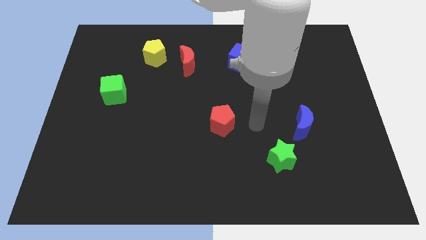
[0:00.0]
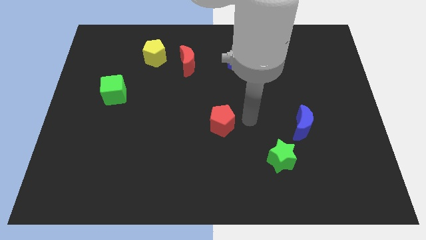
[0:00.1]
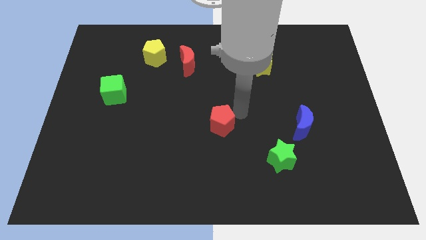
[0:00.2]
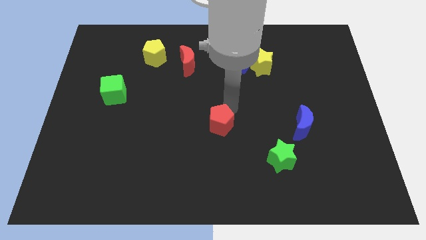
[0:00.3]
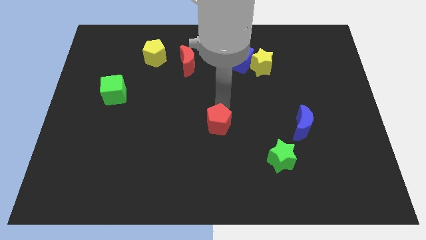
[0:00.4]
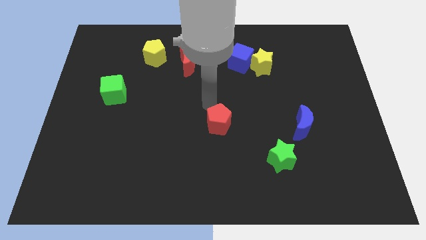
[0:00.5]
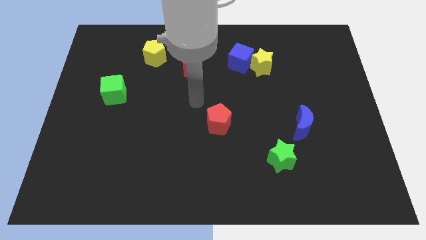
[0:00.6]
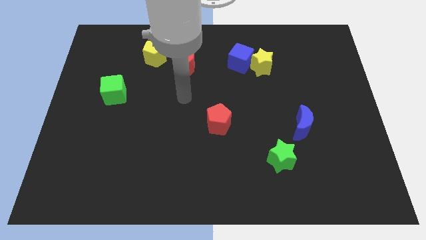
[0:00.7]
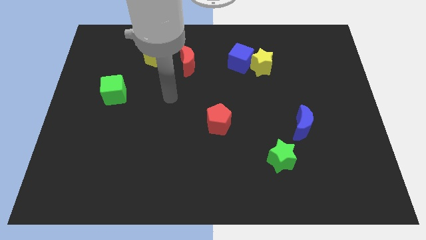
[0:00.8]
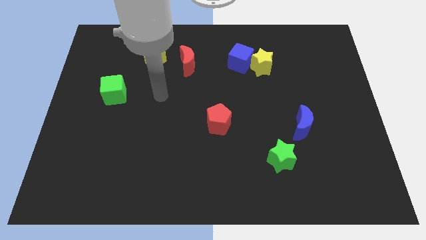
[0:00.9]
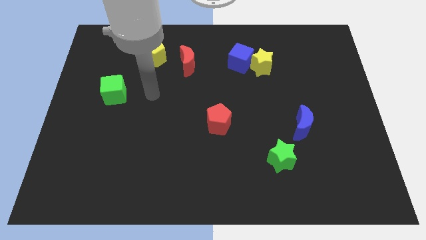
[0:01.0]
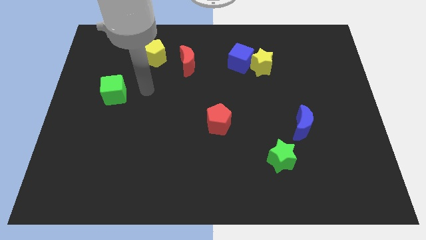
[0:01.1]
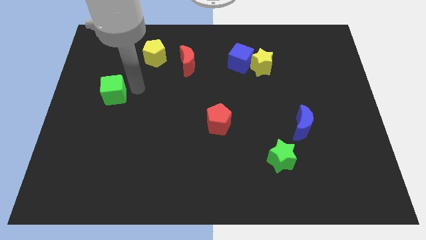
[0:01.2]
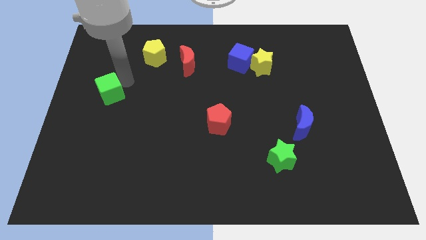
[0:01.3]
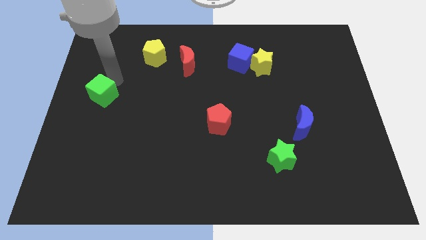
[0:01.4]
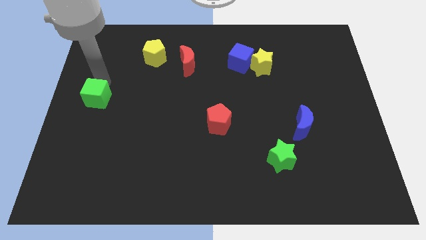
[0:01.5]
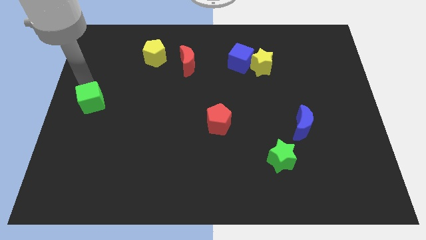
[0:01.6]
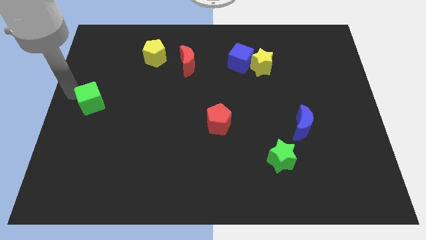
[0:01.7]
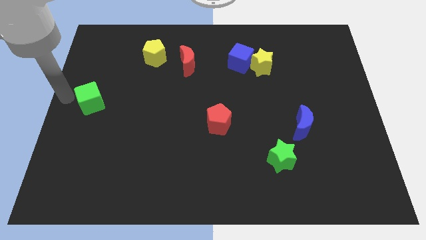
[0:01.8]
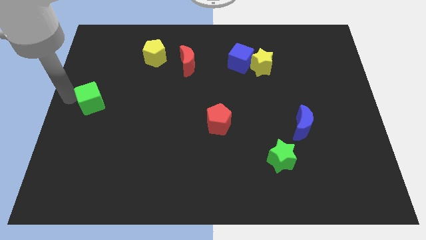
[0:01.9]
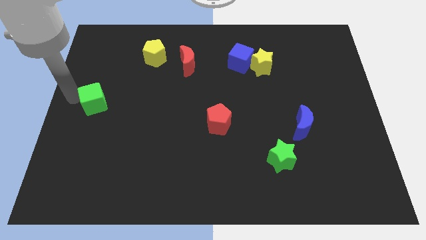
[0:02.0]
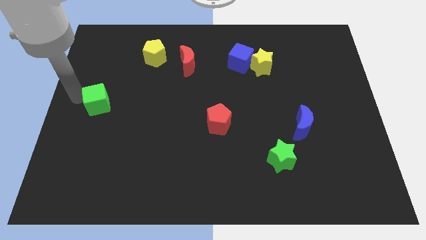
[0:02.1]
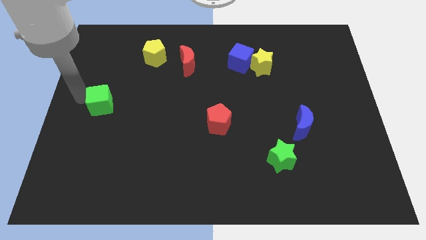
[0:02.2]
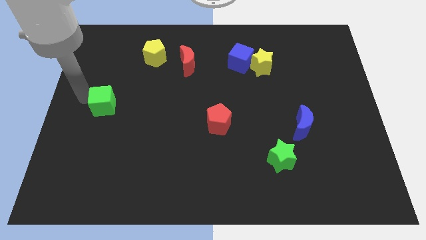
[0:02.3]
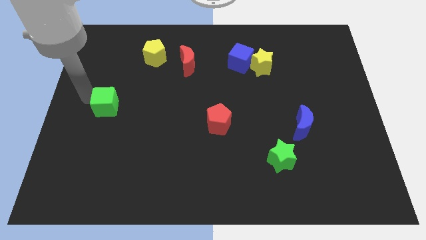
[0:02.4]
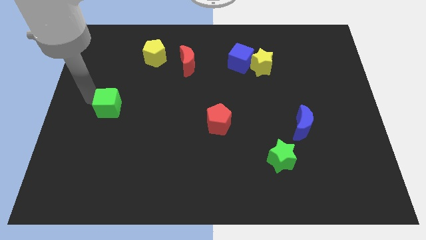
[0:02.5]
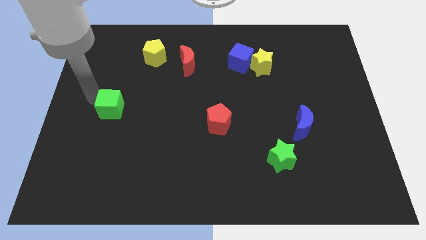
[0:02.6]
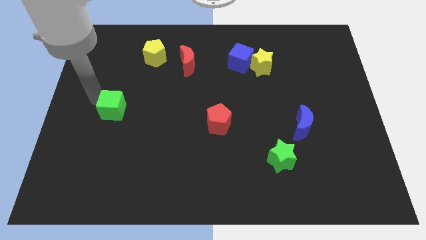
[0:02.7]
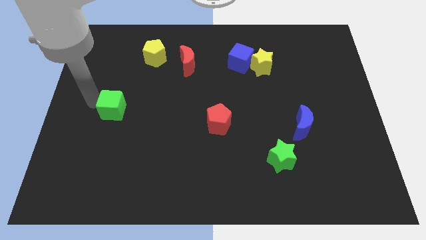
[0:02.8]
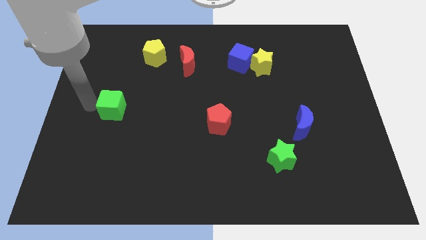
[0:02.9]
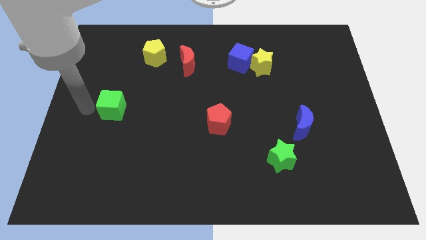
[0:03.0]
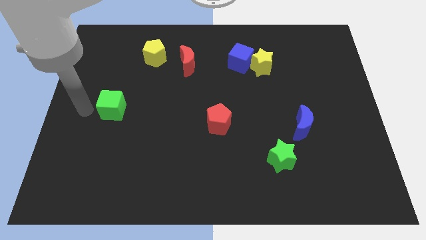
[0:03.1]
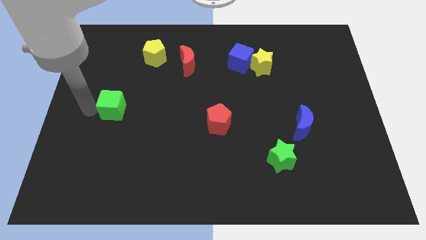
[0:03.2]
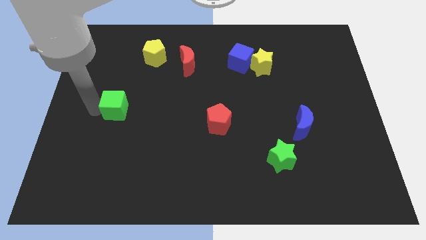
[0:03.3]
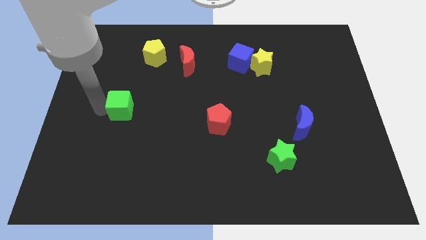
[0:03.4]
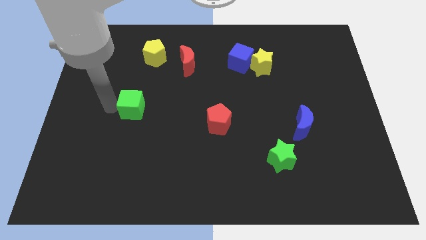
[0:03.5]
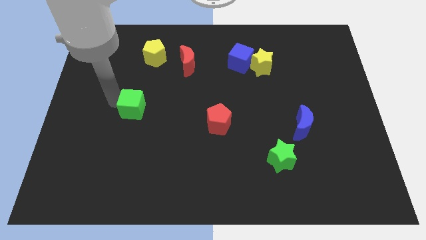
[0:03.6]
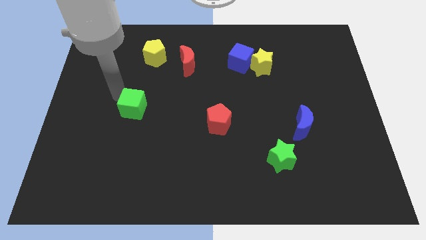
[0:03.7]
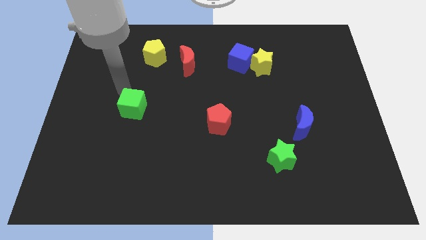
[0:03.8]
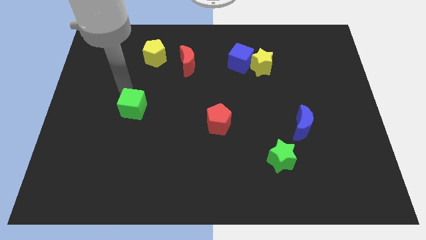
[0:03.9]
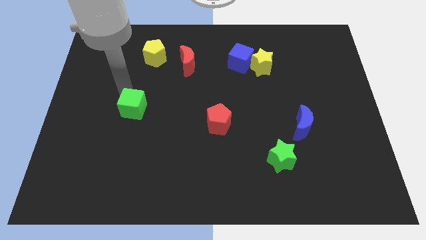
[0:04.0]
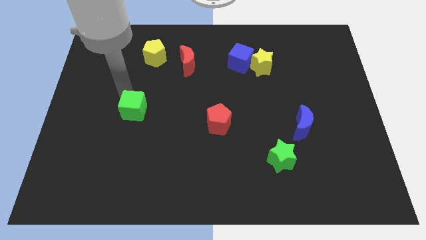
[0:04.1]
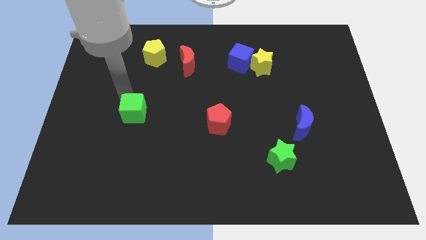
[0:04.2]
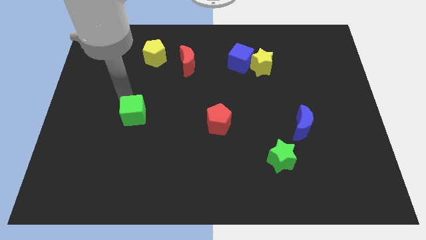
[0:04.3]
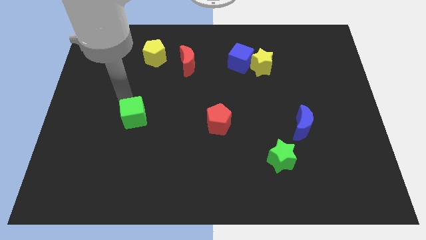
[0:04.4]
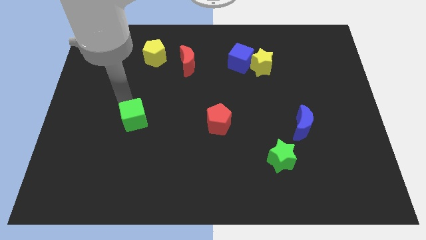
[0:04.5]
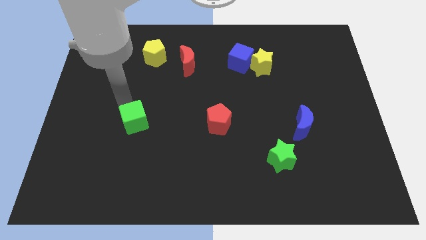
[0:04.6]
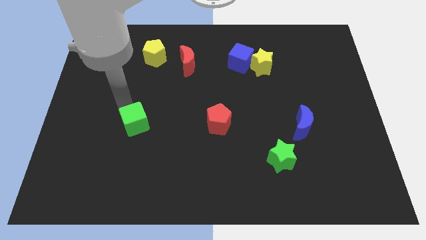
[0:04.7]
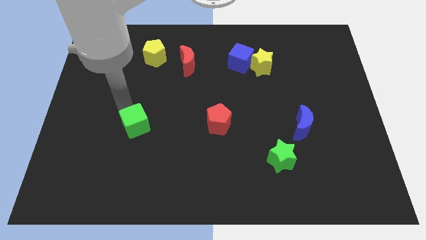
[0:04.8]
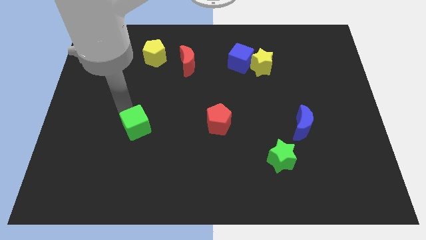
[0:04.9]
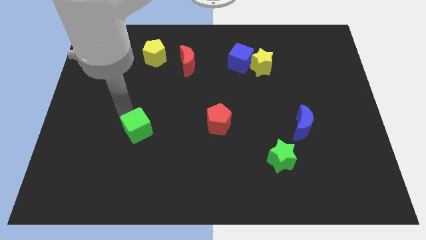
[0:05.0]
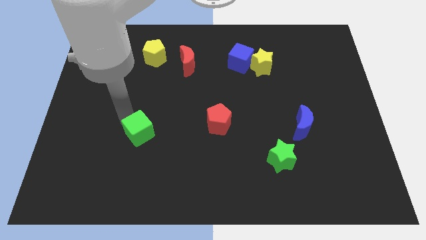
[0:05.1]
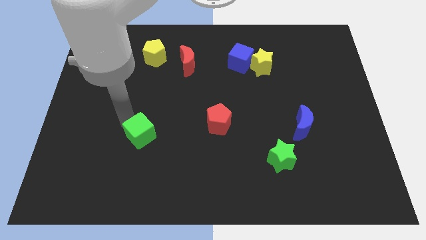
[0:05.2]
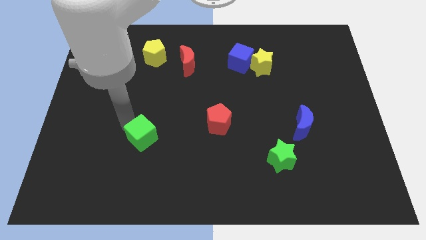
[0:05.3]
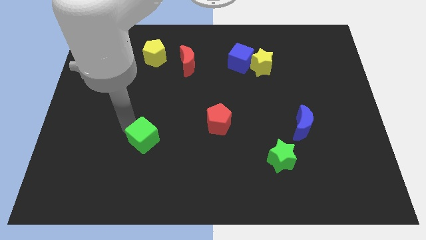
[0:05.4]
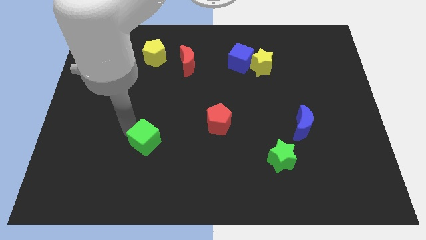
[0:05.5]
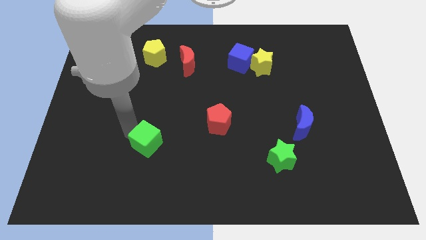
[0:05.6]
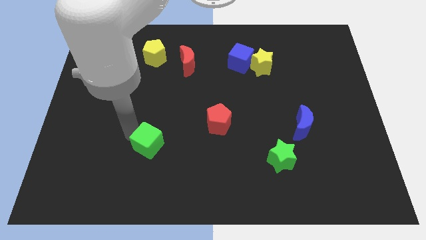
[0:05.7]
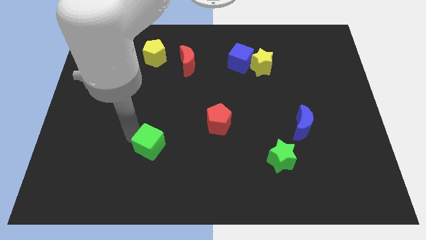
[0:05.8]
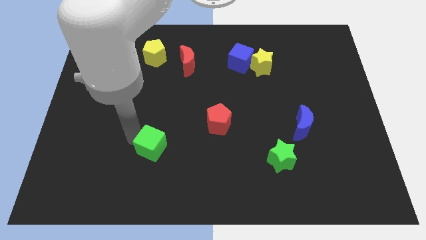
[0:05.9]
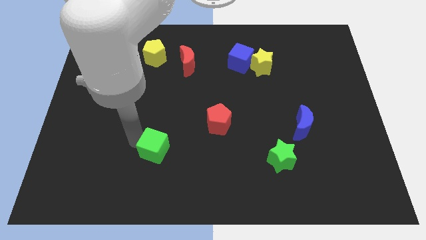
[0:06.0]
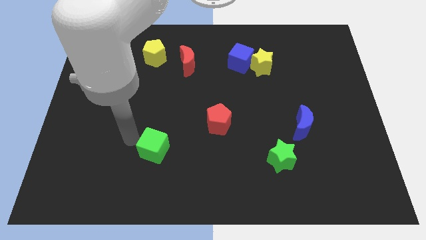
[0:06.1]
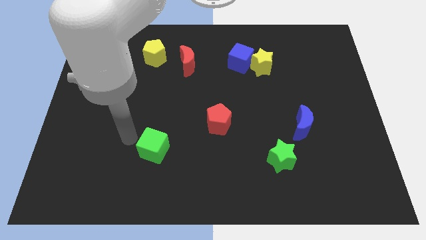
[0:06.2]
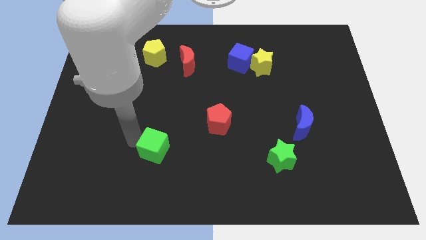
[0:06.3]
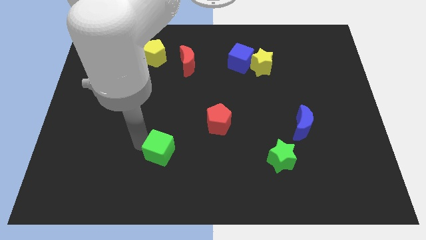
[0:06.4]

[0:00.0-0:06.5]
move the green cube down and to the right

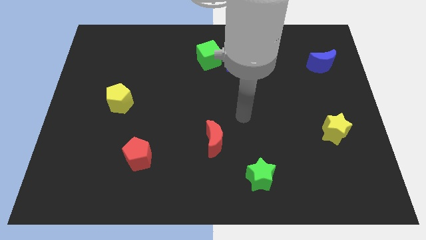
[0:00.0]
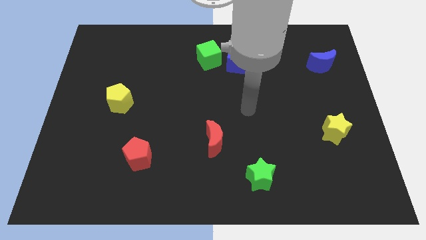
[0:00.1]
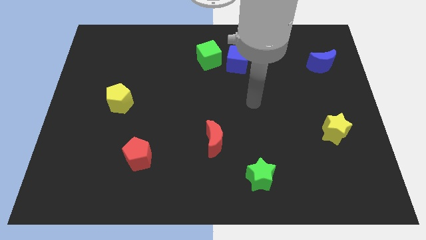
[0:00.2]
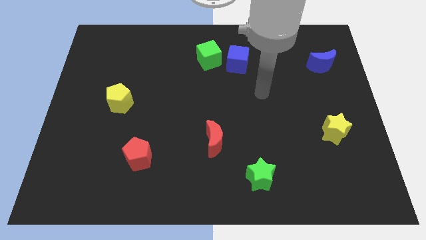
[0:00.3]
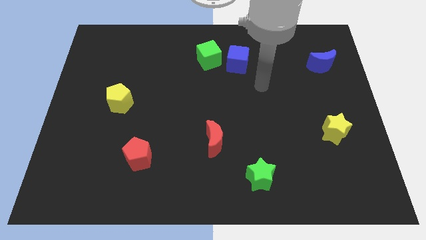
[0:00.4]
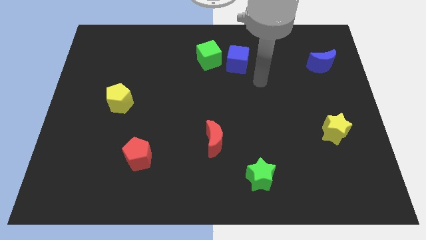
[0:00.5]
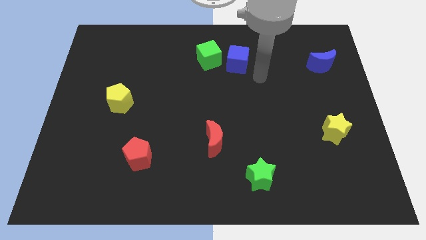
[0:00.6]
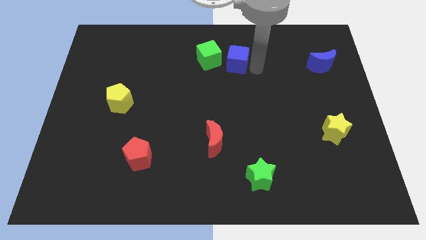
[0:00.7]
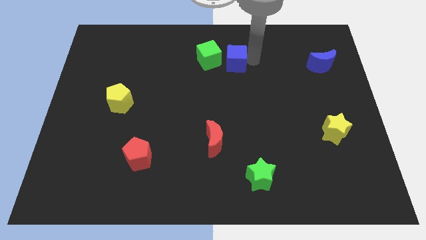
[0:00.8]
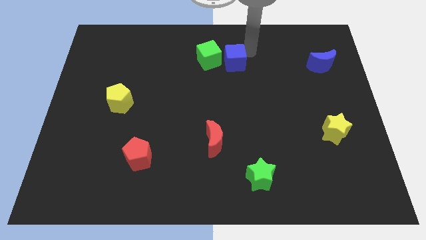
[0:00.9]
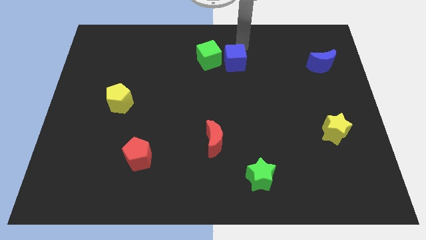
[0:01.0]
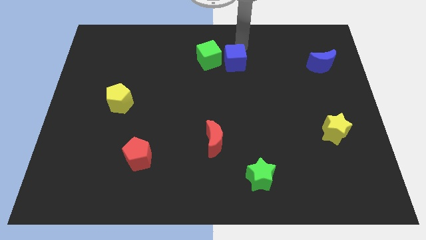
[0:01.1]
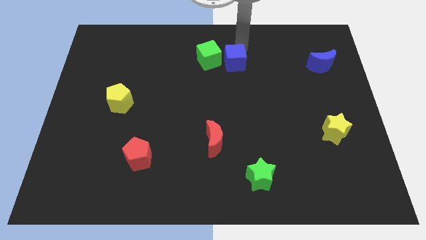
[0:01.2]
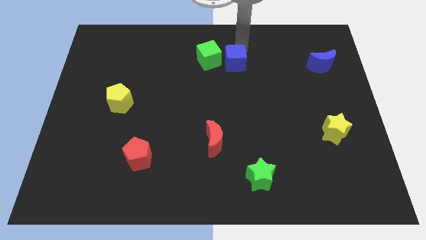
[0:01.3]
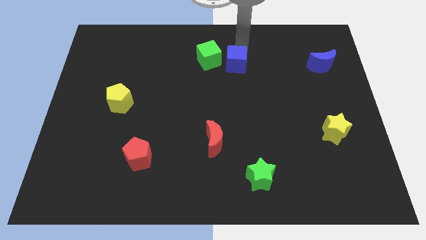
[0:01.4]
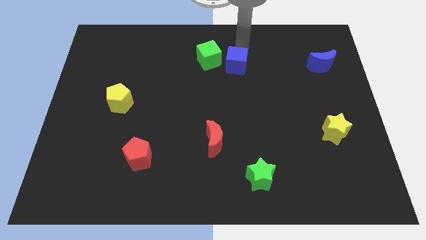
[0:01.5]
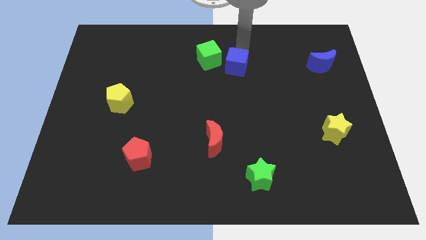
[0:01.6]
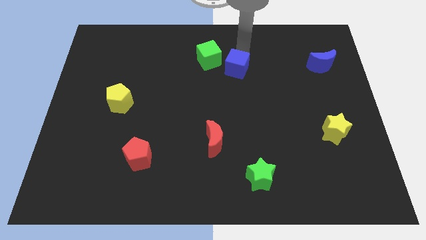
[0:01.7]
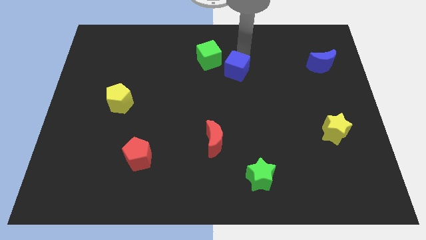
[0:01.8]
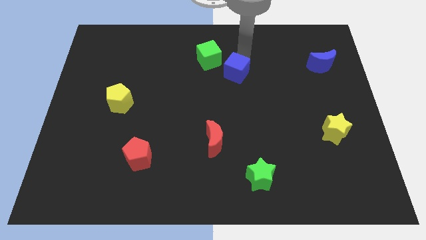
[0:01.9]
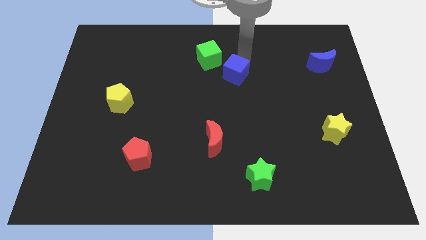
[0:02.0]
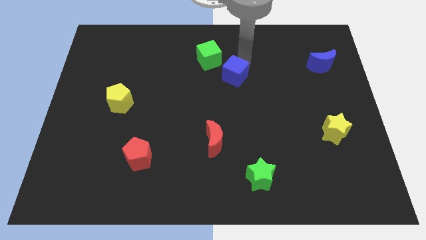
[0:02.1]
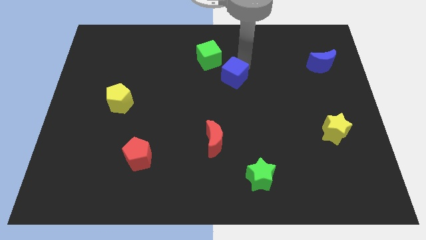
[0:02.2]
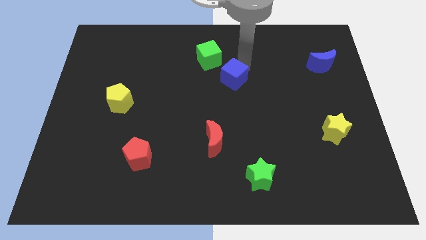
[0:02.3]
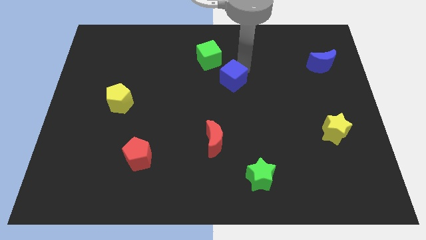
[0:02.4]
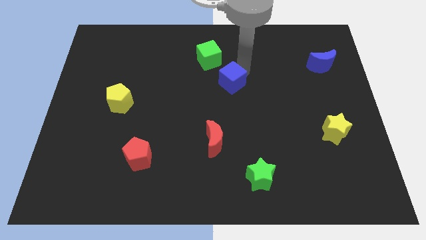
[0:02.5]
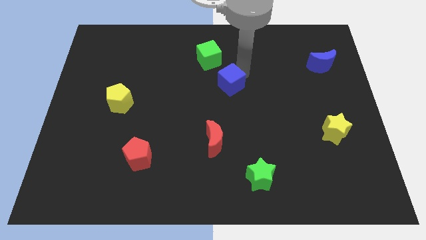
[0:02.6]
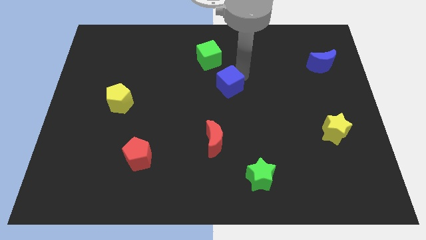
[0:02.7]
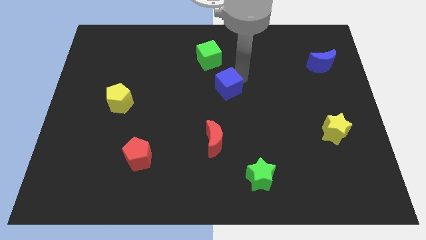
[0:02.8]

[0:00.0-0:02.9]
move the blue cube diagonally downwards and to the left slightly
